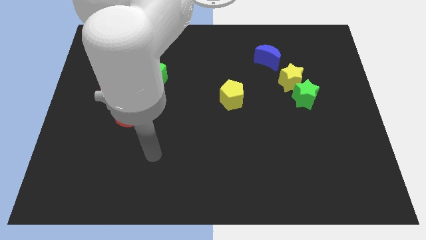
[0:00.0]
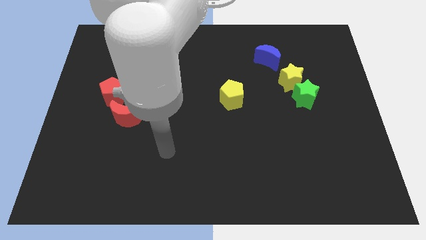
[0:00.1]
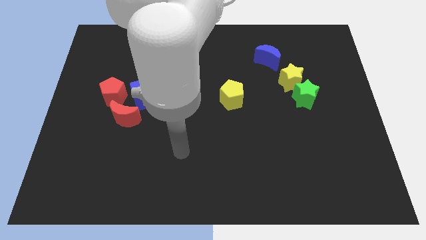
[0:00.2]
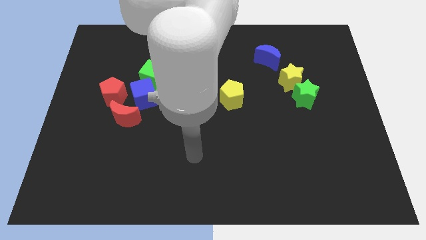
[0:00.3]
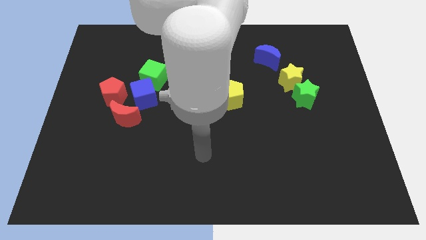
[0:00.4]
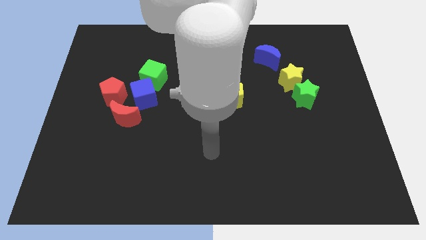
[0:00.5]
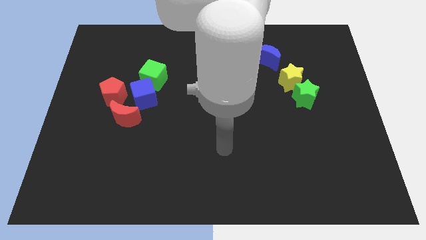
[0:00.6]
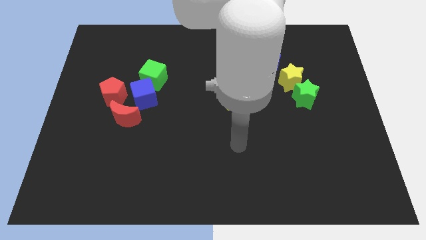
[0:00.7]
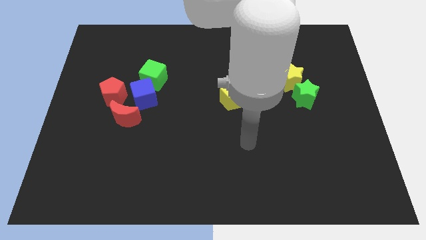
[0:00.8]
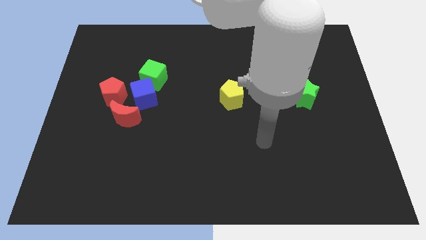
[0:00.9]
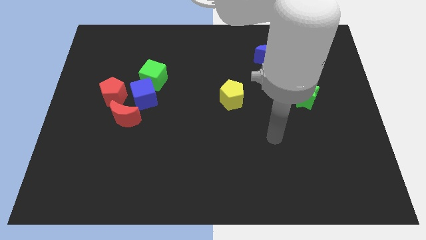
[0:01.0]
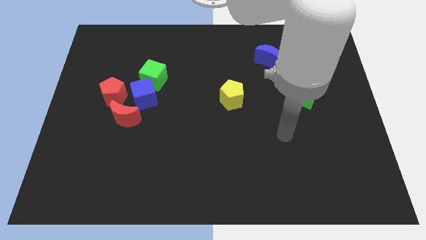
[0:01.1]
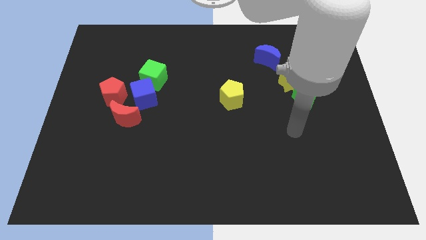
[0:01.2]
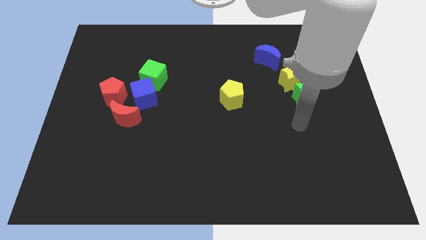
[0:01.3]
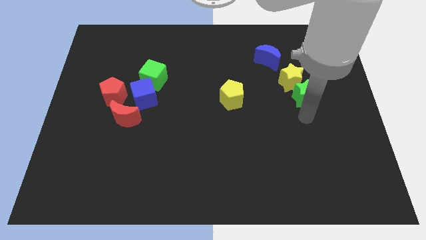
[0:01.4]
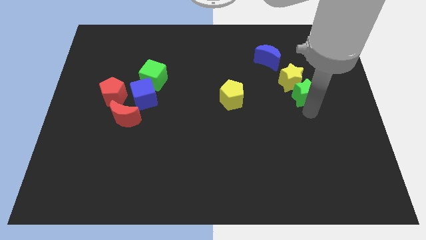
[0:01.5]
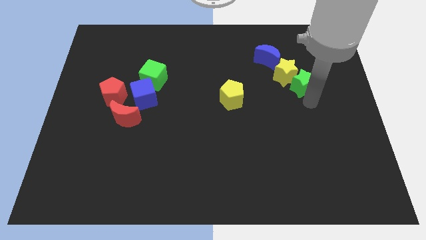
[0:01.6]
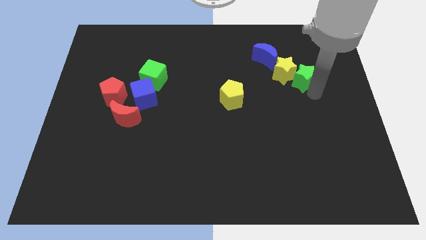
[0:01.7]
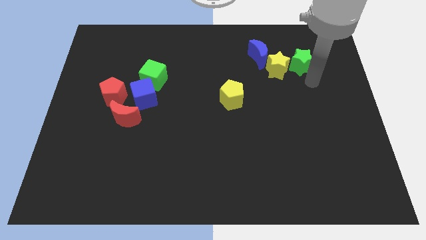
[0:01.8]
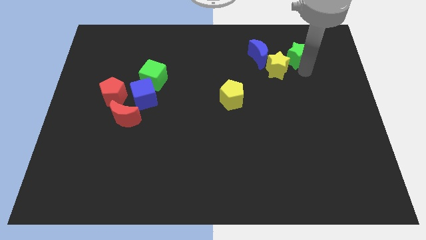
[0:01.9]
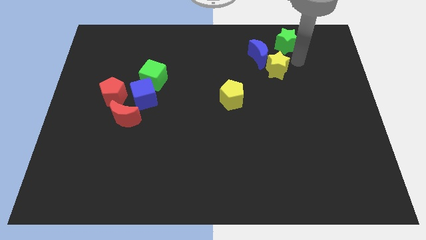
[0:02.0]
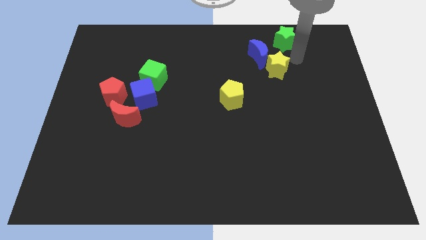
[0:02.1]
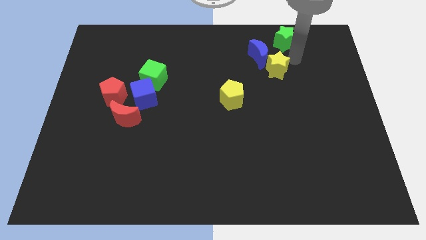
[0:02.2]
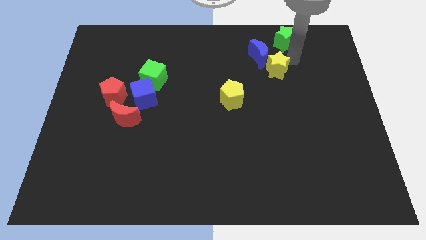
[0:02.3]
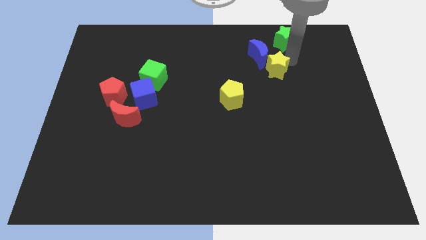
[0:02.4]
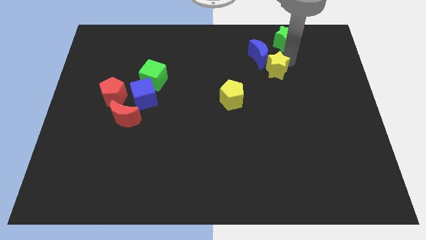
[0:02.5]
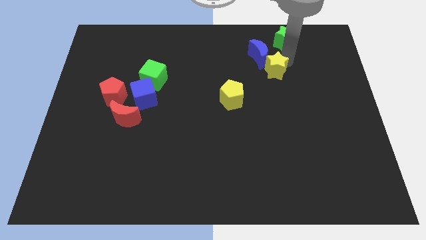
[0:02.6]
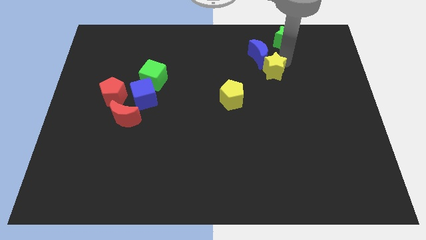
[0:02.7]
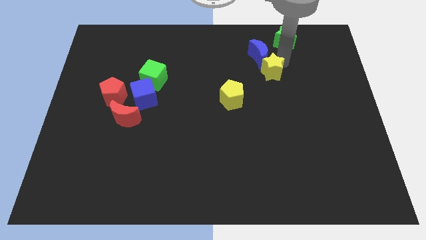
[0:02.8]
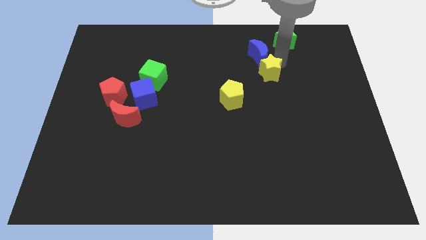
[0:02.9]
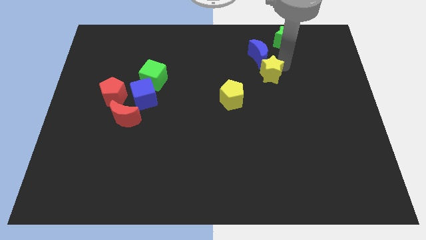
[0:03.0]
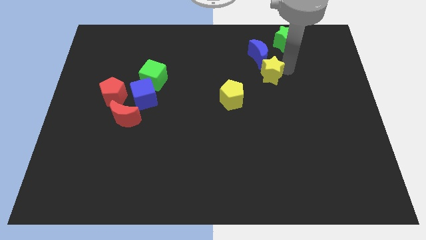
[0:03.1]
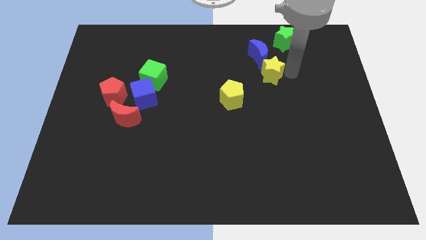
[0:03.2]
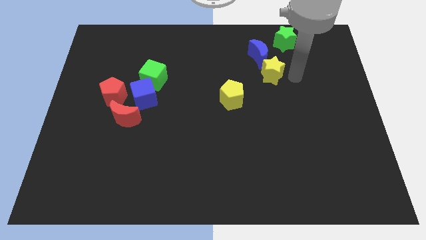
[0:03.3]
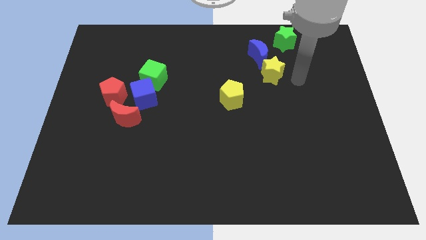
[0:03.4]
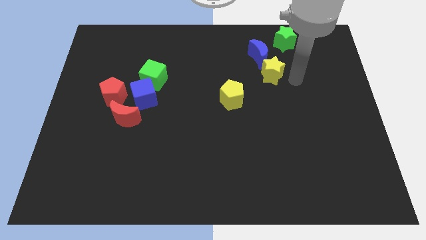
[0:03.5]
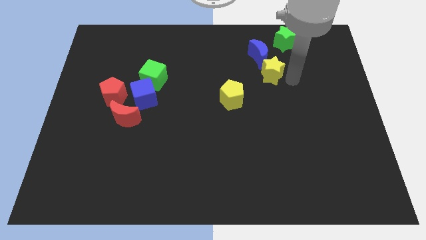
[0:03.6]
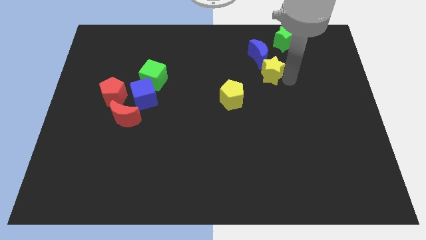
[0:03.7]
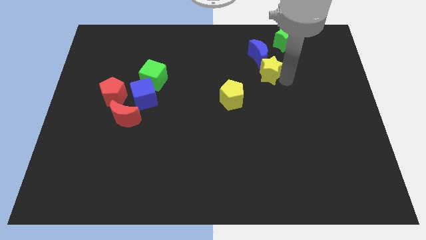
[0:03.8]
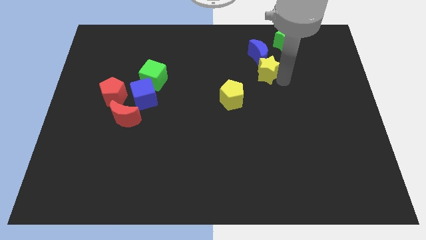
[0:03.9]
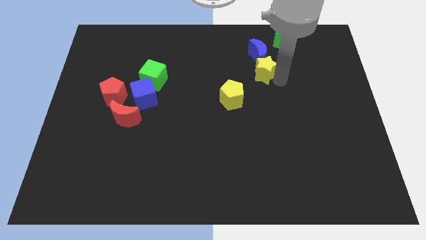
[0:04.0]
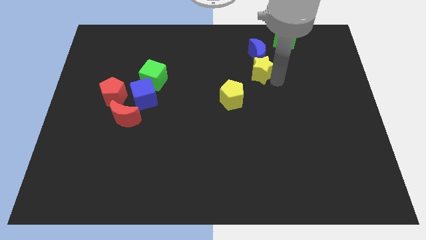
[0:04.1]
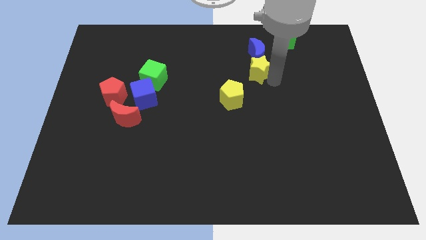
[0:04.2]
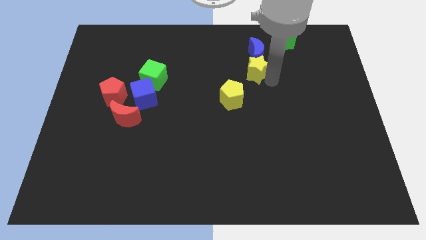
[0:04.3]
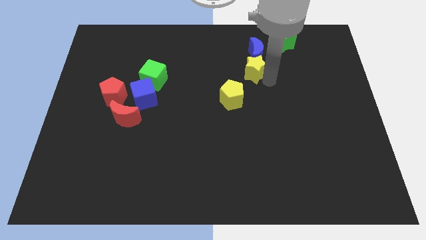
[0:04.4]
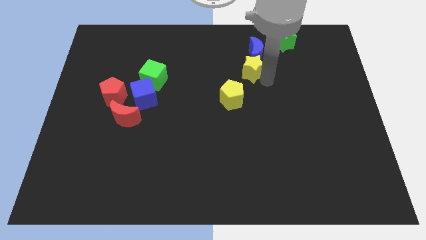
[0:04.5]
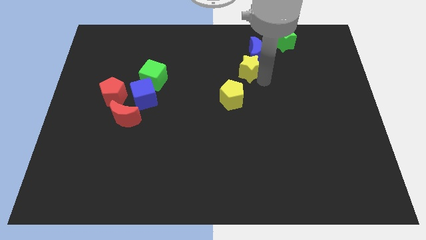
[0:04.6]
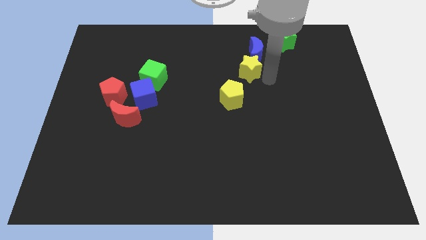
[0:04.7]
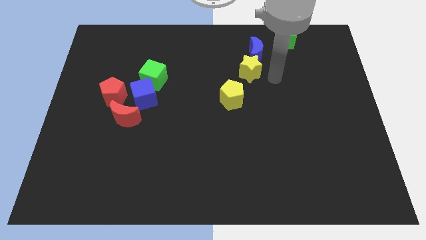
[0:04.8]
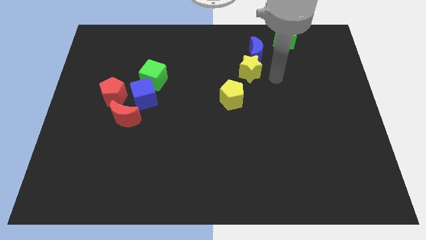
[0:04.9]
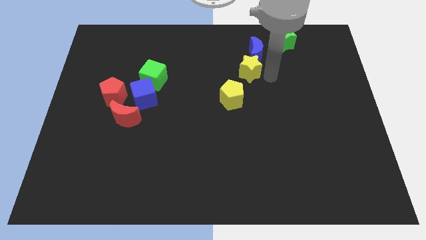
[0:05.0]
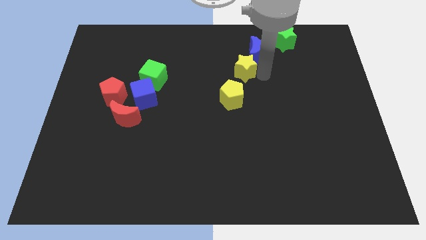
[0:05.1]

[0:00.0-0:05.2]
push the yellow star above the yellow pentagon

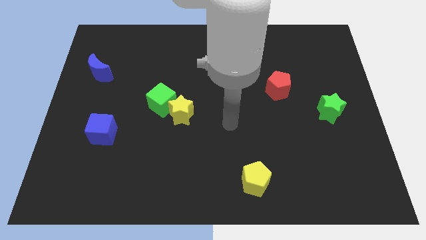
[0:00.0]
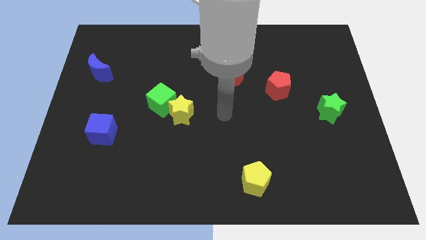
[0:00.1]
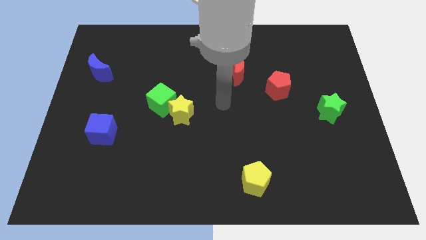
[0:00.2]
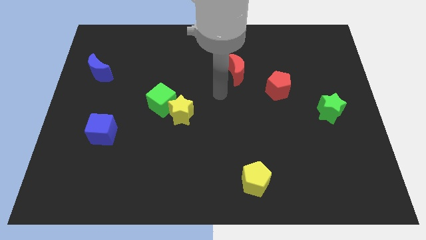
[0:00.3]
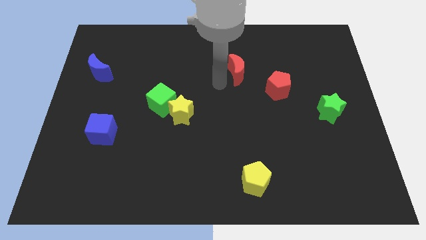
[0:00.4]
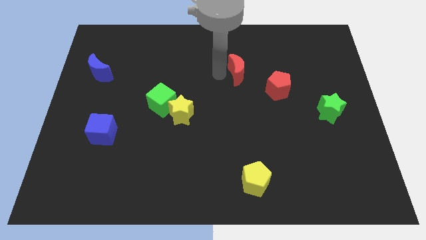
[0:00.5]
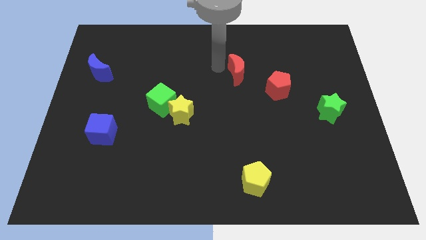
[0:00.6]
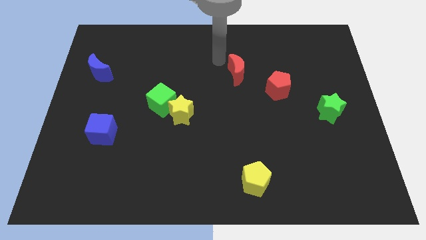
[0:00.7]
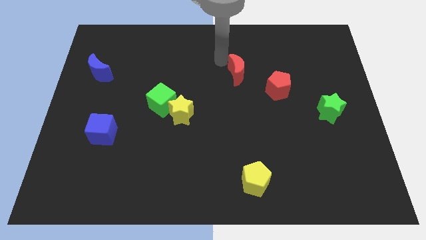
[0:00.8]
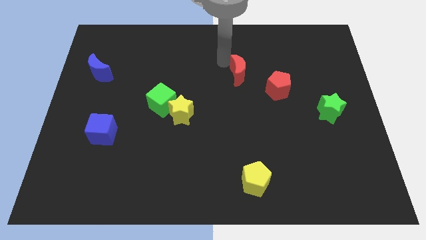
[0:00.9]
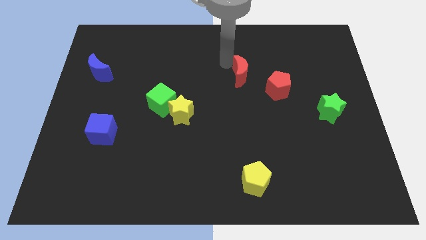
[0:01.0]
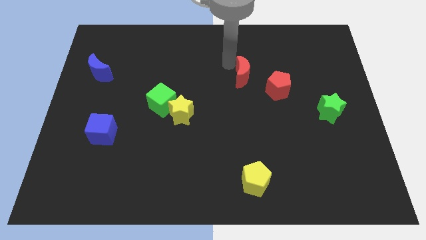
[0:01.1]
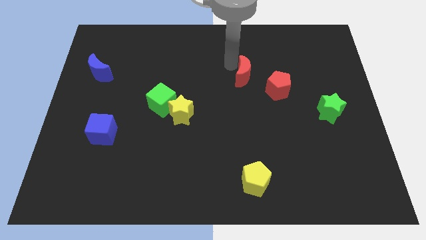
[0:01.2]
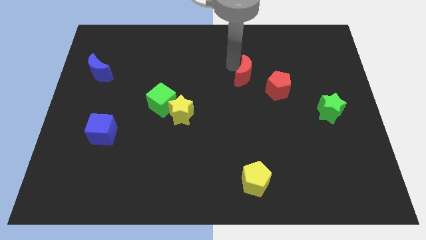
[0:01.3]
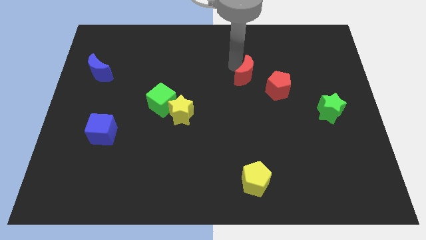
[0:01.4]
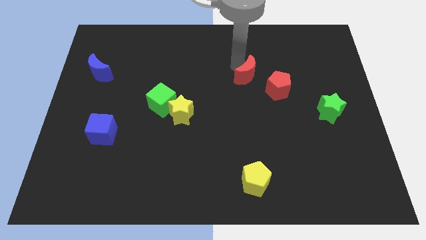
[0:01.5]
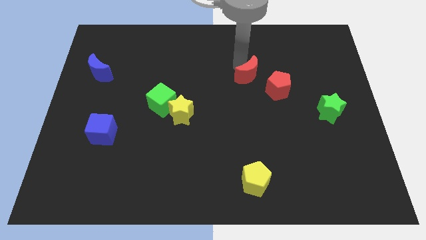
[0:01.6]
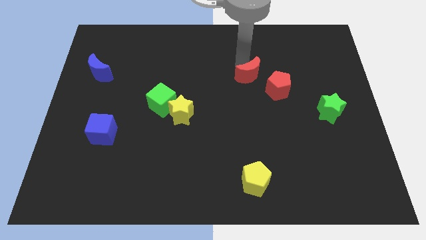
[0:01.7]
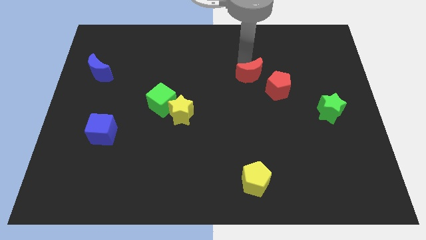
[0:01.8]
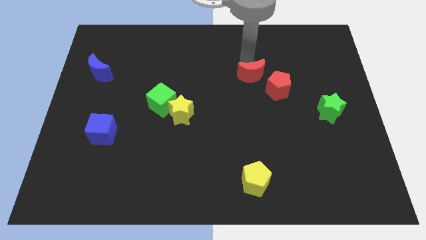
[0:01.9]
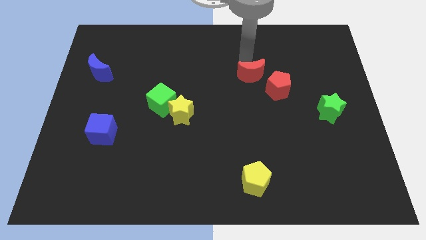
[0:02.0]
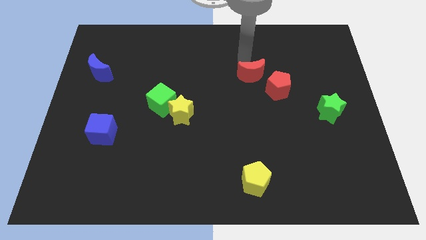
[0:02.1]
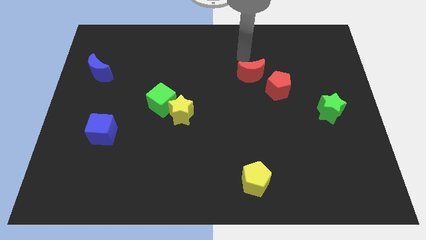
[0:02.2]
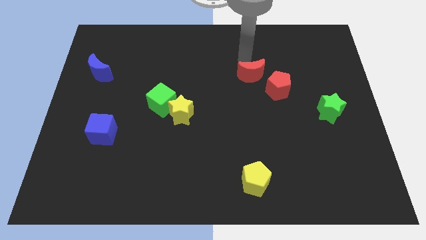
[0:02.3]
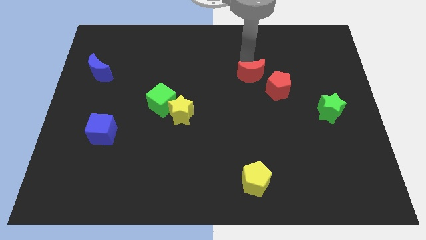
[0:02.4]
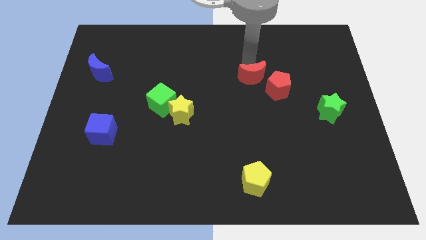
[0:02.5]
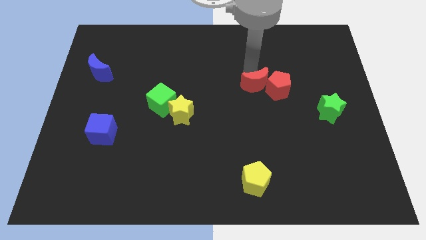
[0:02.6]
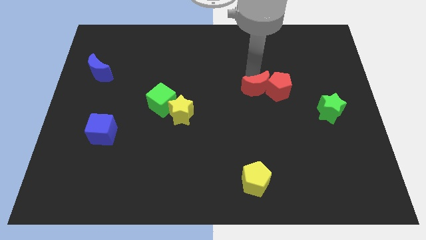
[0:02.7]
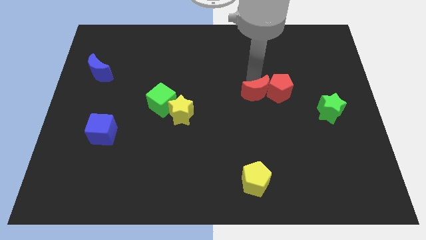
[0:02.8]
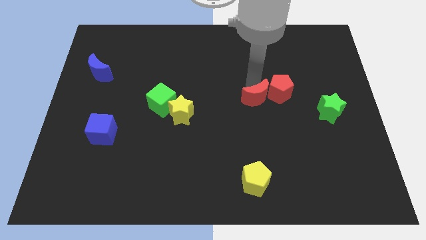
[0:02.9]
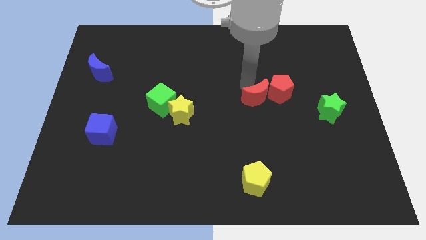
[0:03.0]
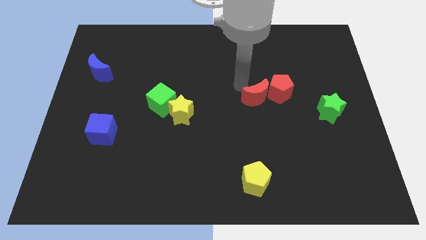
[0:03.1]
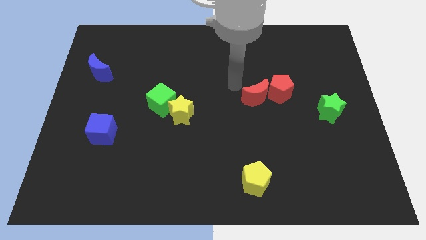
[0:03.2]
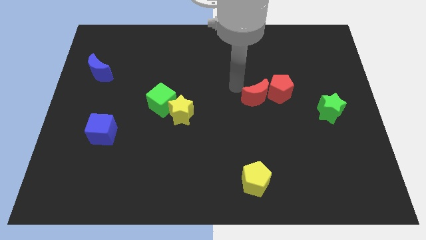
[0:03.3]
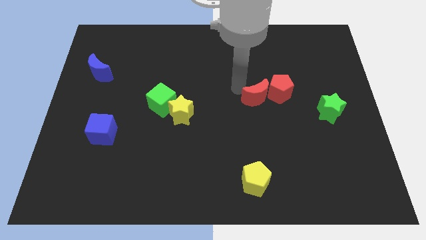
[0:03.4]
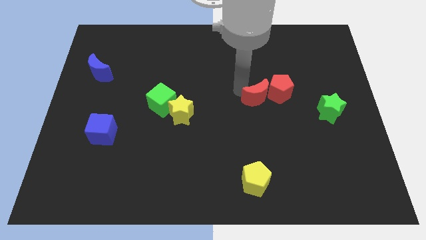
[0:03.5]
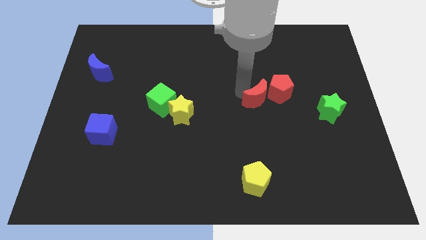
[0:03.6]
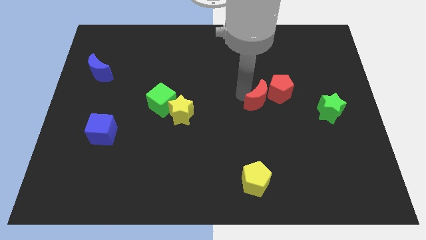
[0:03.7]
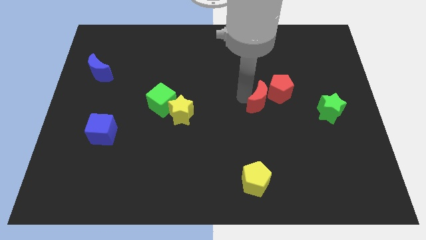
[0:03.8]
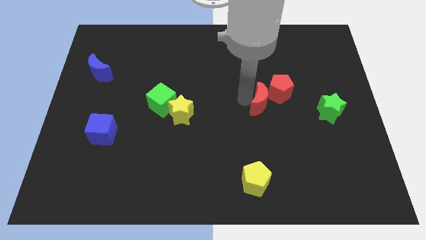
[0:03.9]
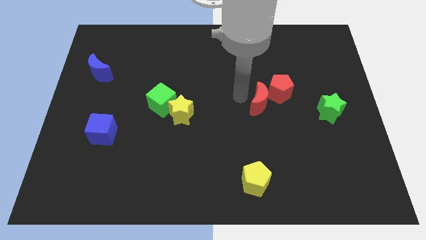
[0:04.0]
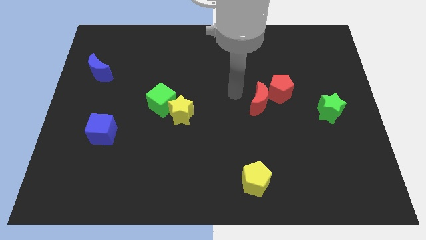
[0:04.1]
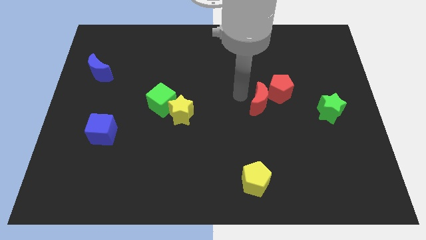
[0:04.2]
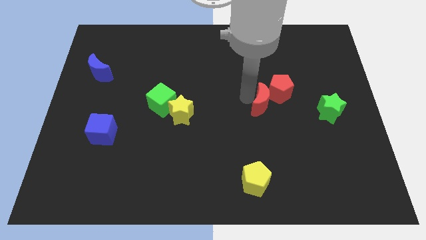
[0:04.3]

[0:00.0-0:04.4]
slide the red moon left of the green star
